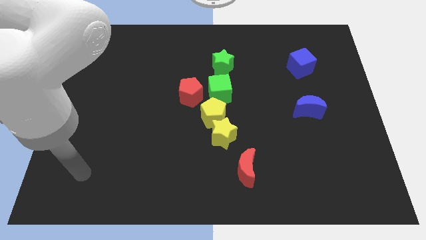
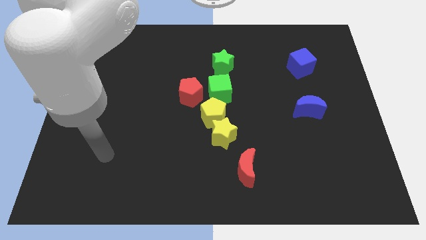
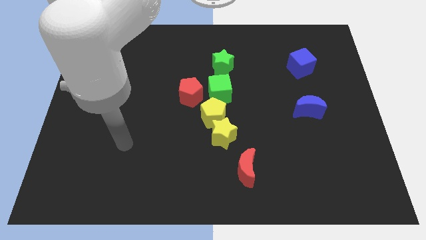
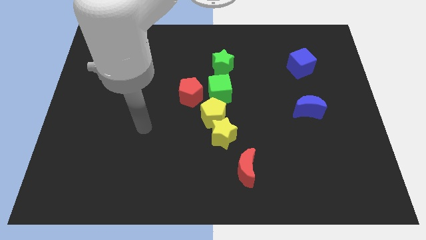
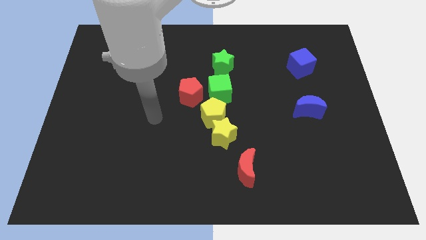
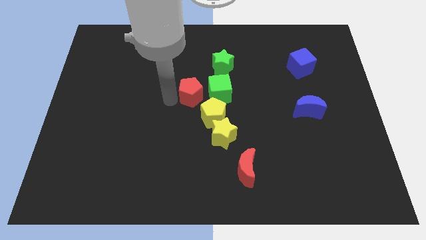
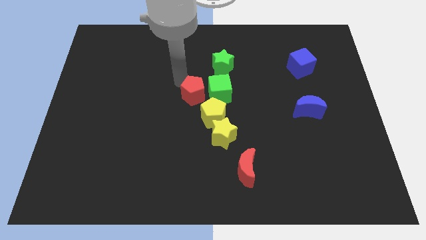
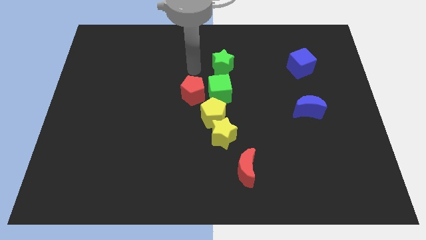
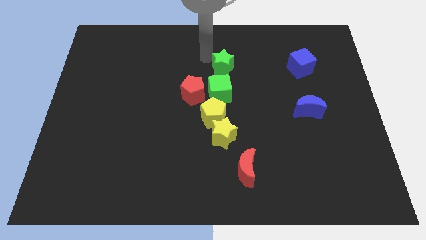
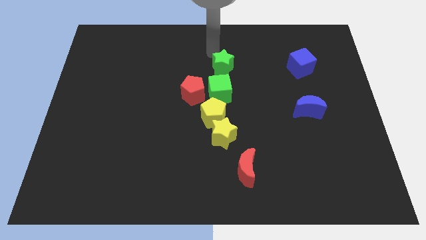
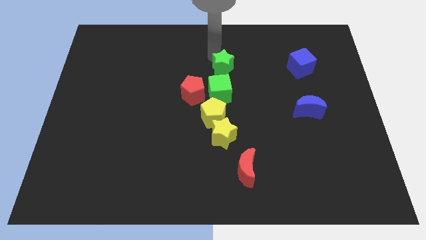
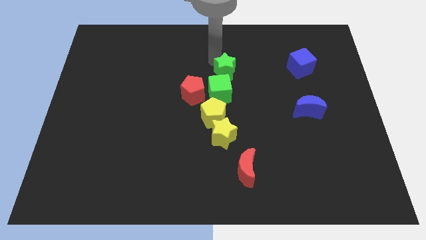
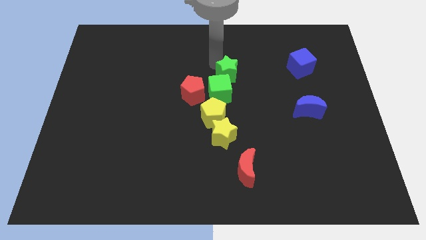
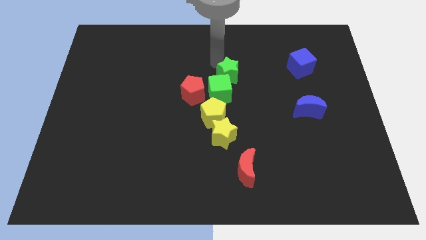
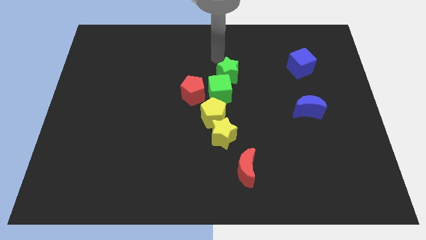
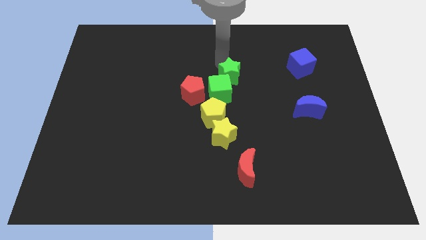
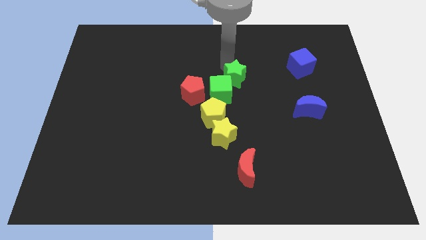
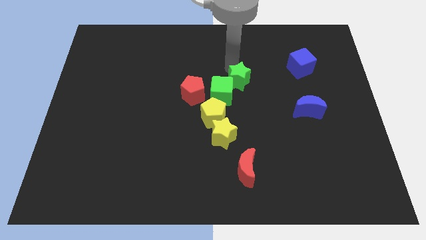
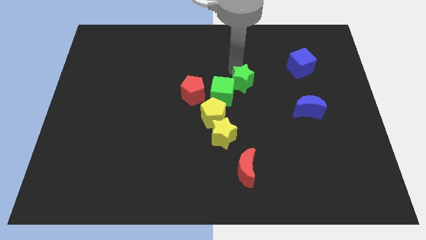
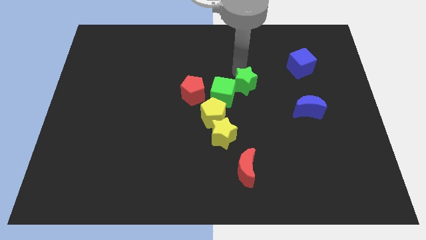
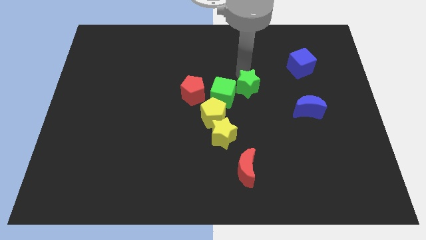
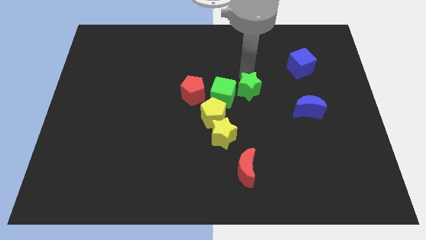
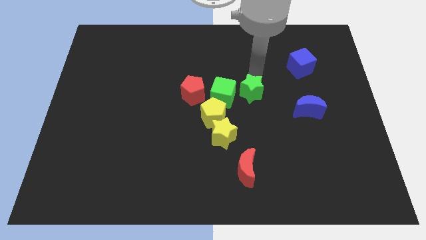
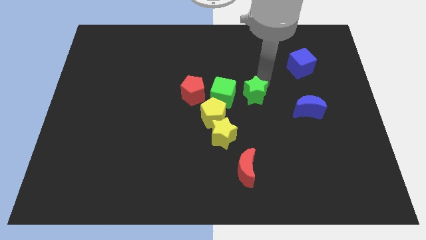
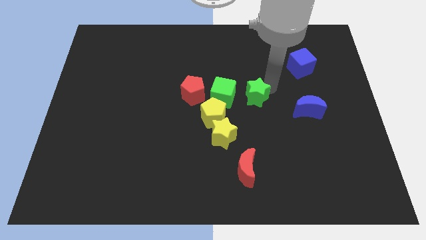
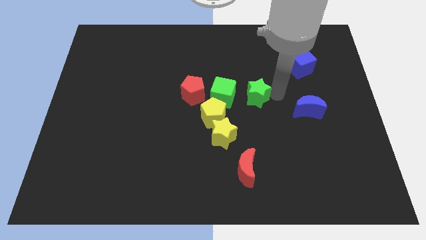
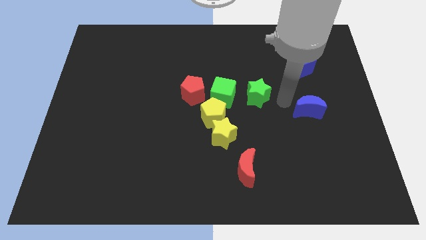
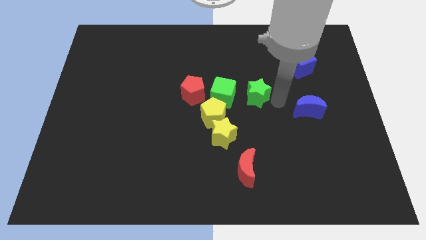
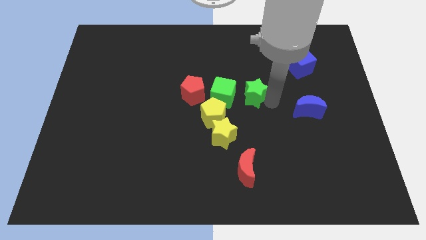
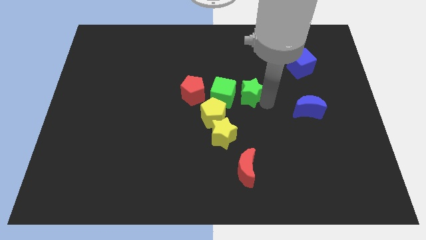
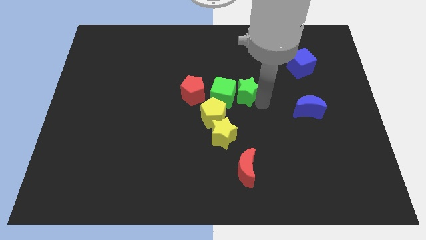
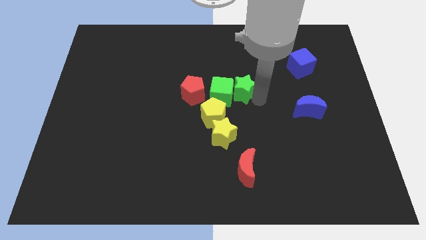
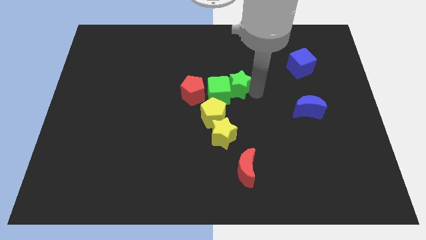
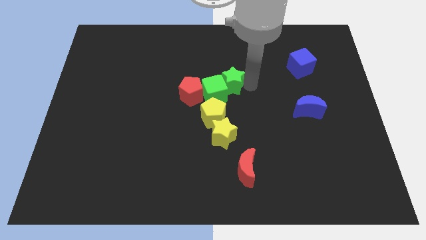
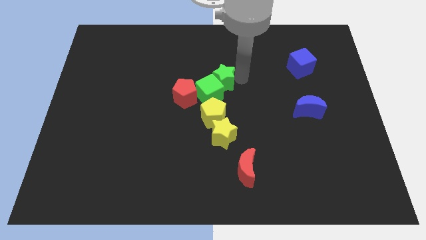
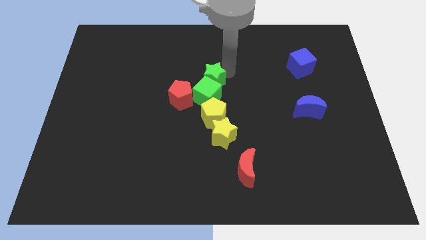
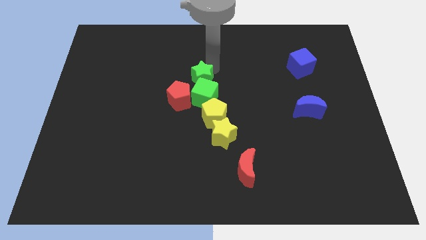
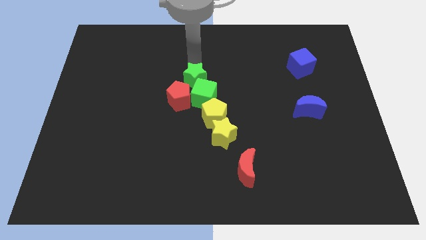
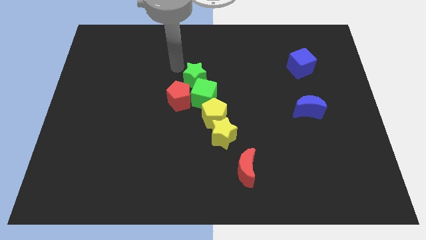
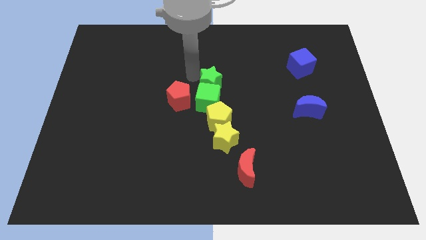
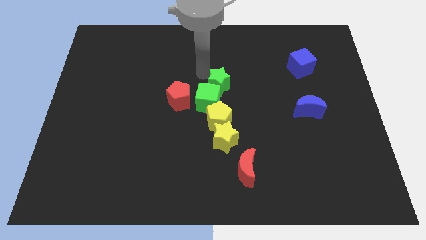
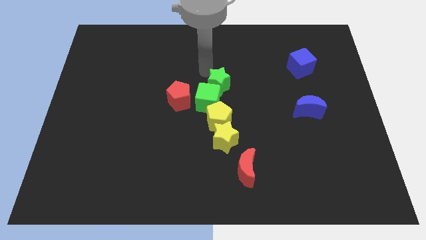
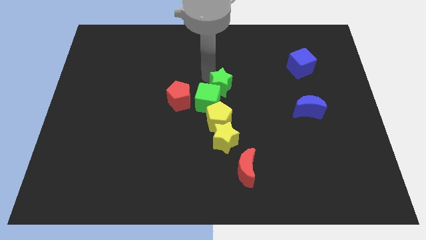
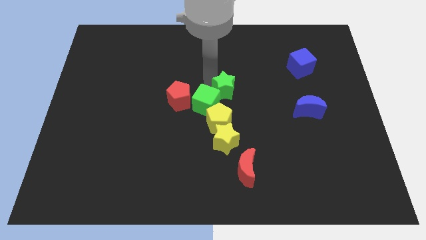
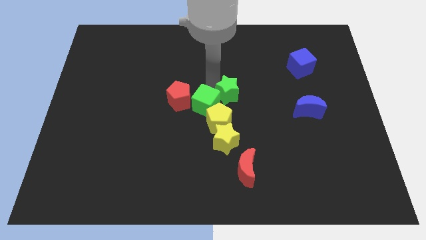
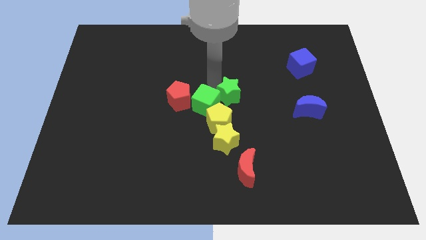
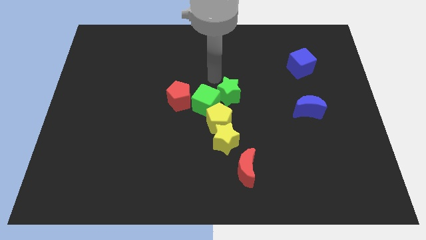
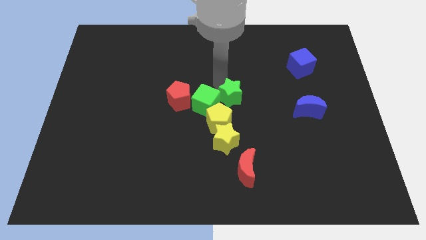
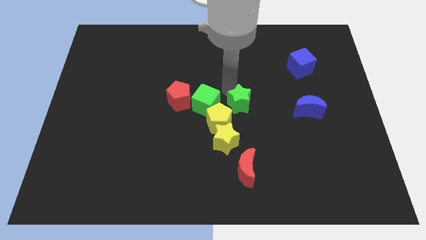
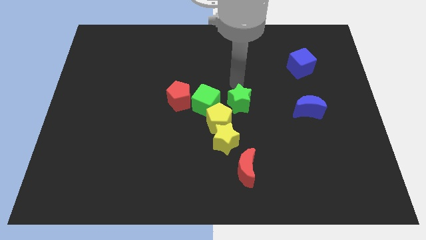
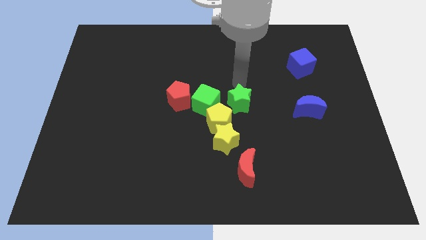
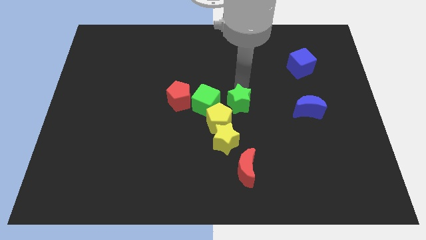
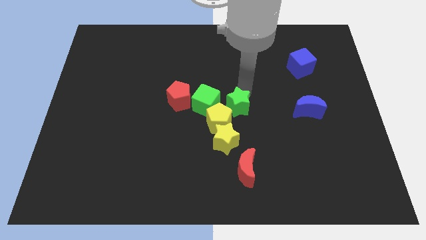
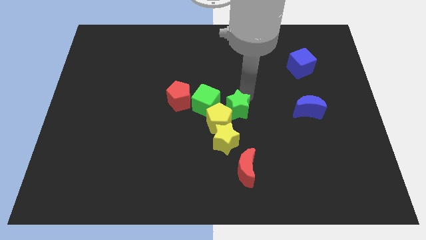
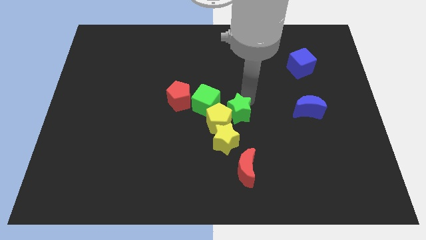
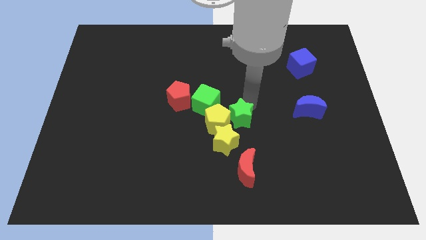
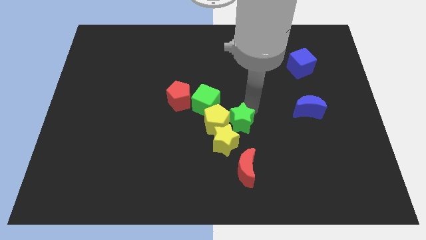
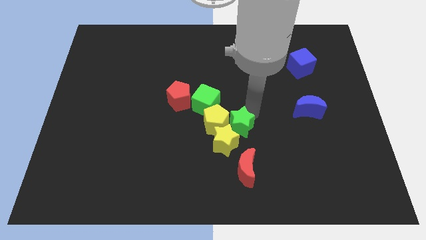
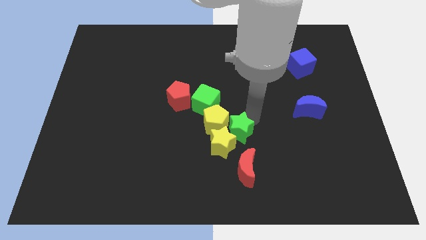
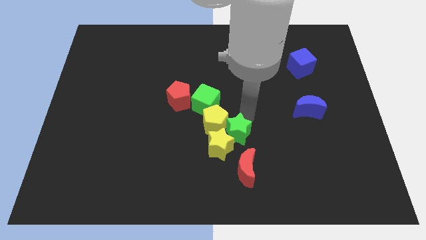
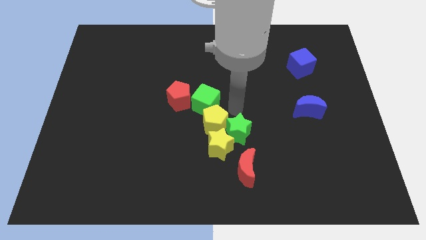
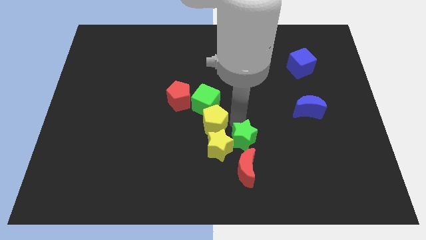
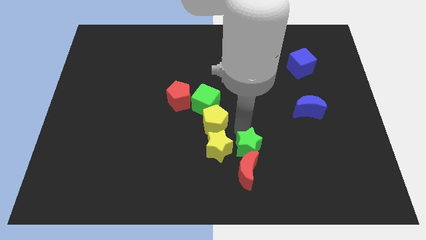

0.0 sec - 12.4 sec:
put the green star next to the red moon
